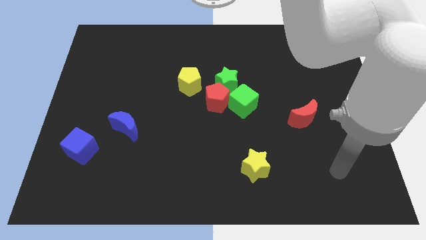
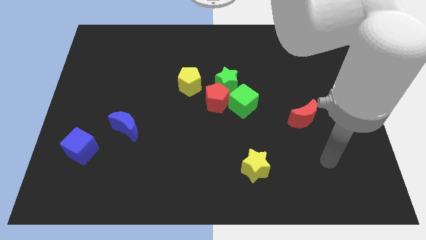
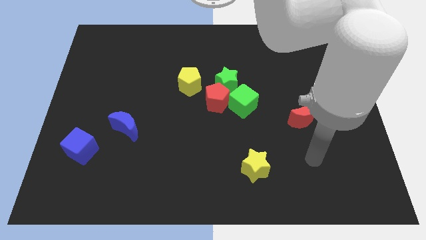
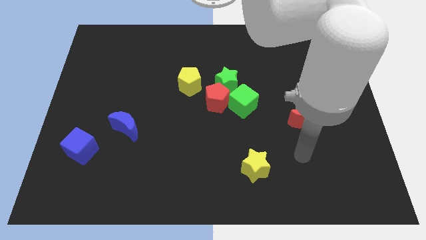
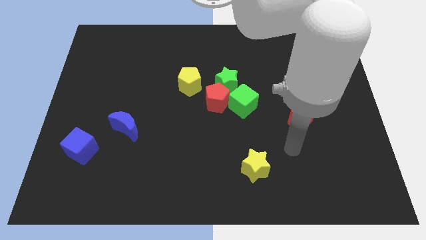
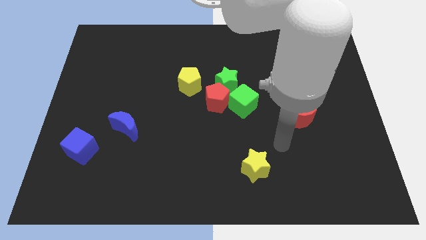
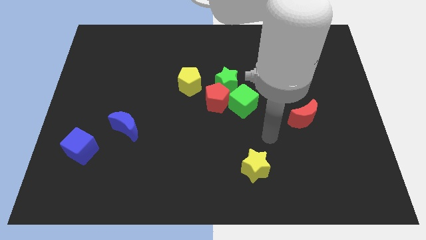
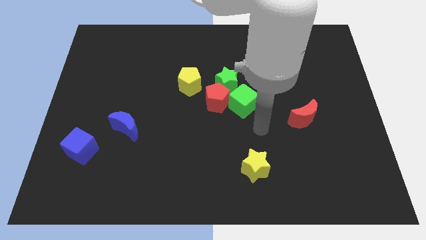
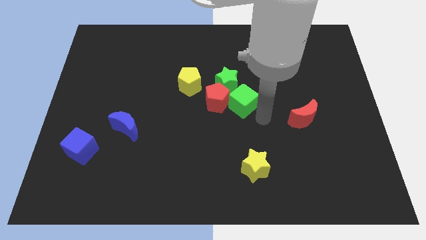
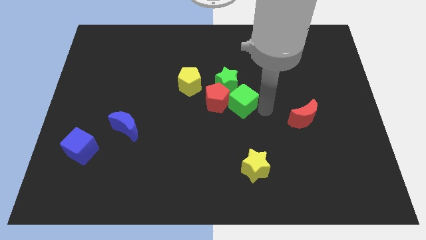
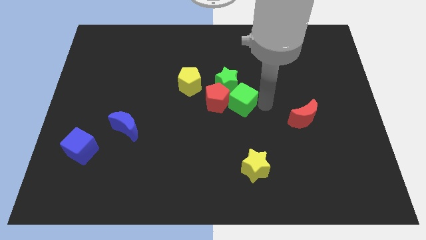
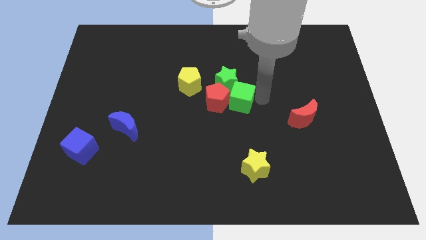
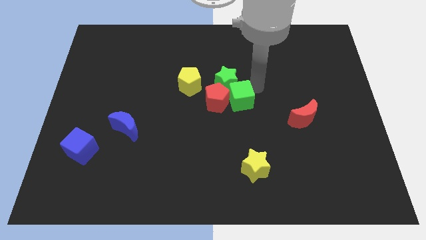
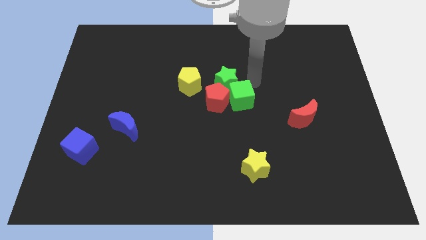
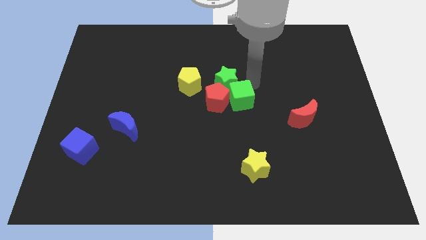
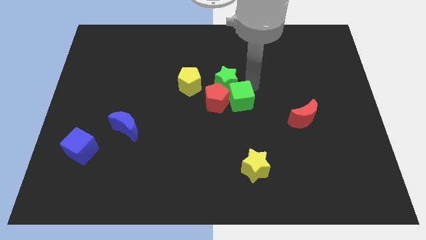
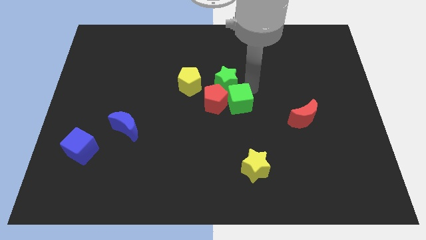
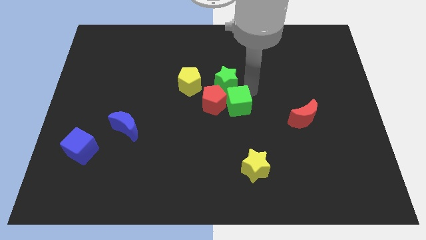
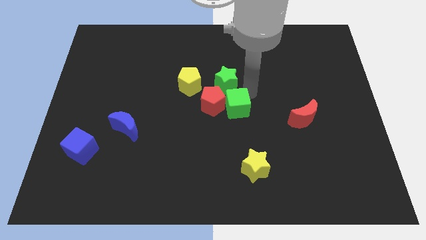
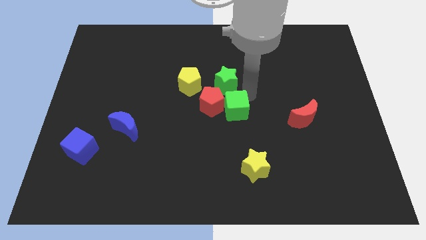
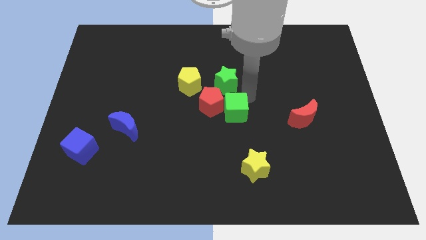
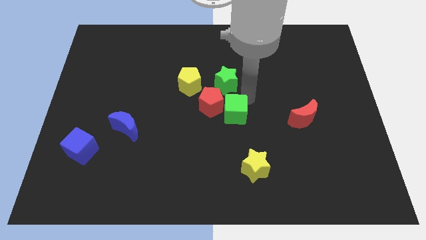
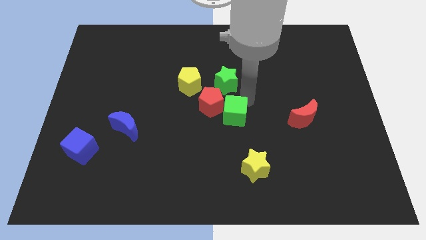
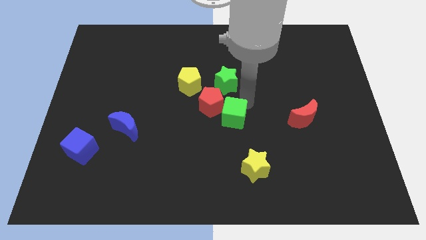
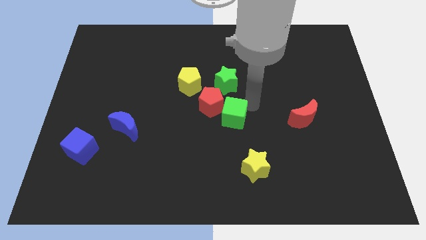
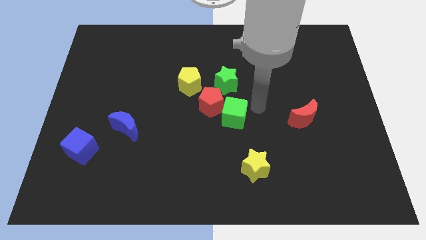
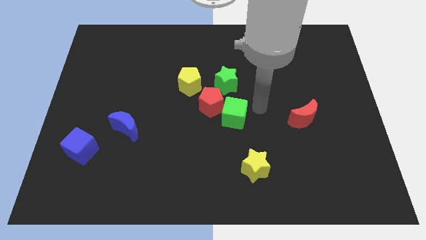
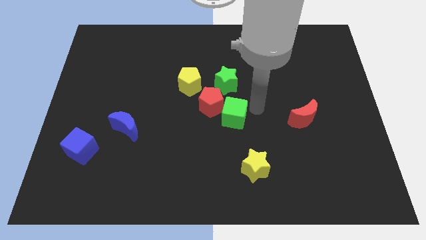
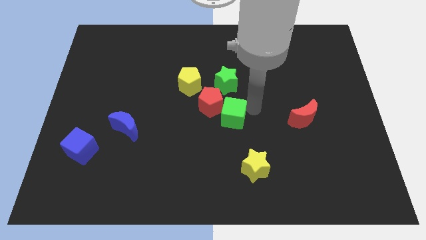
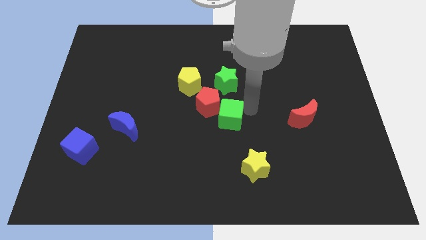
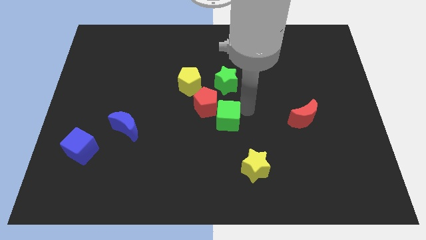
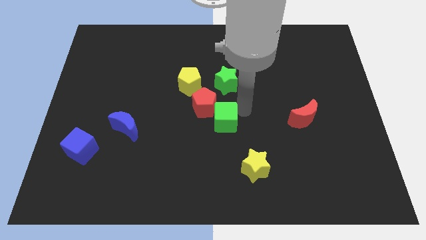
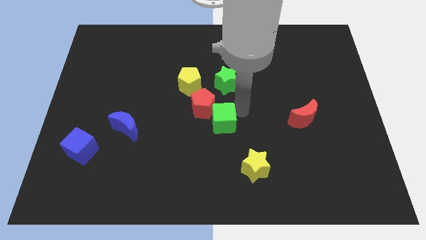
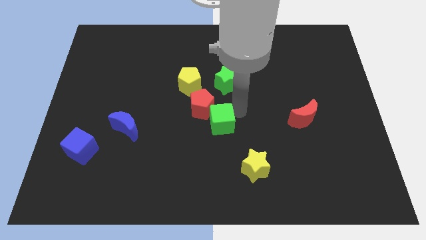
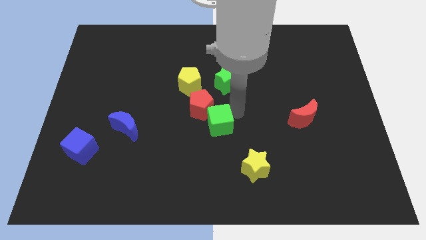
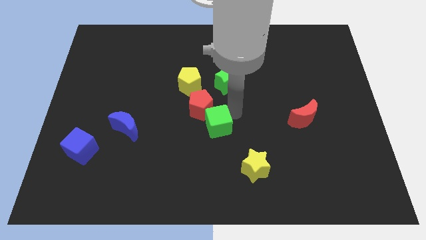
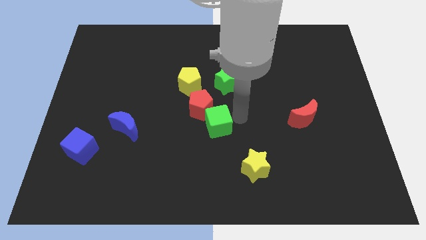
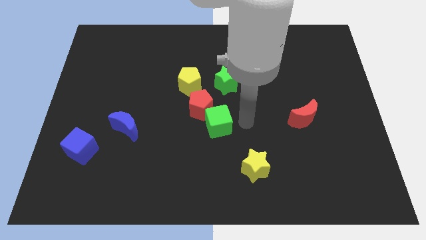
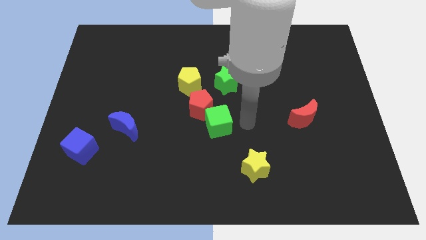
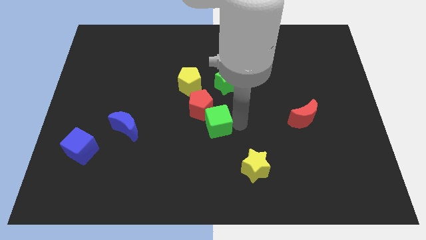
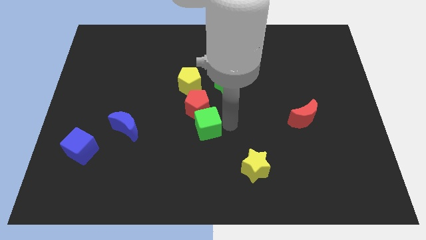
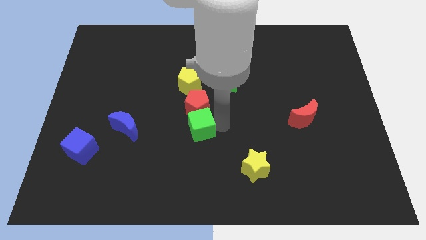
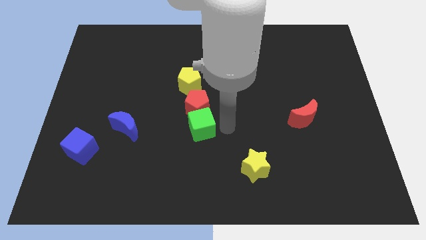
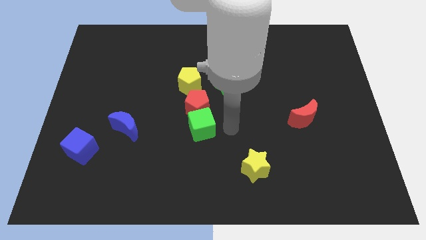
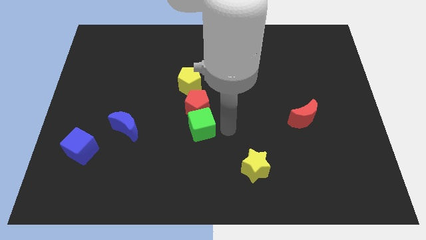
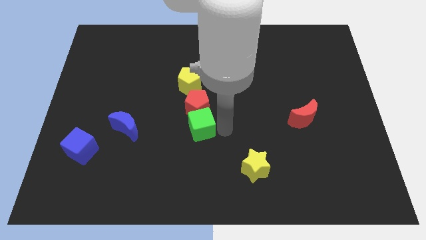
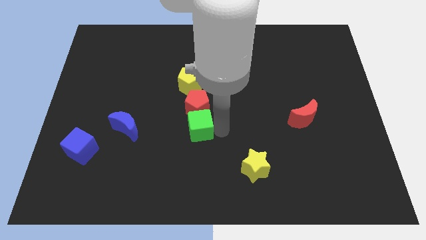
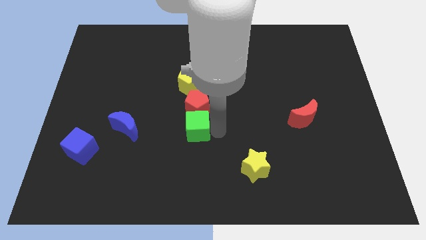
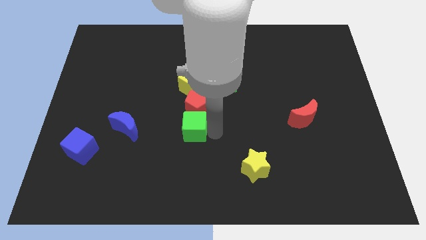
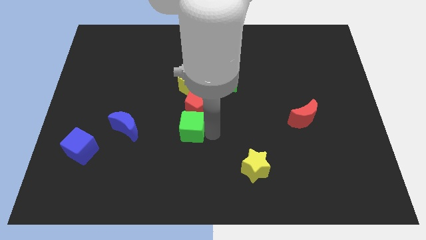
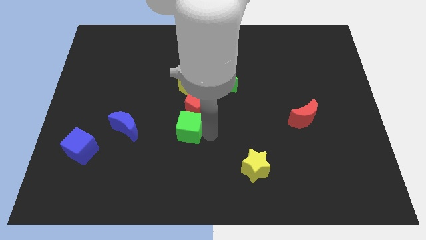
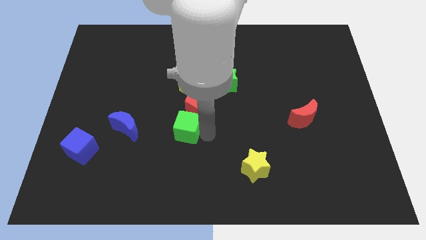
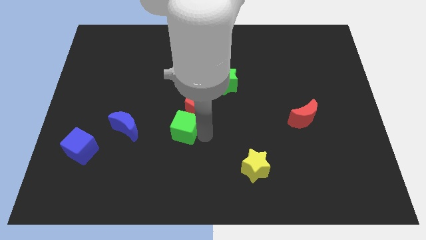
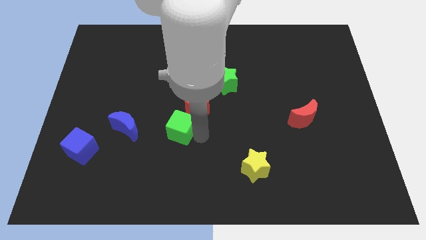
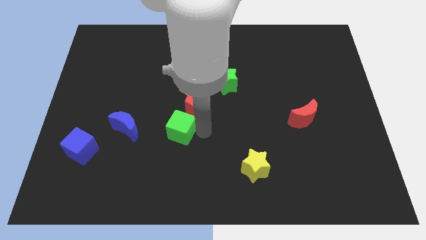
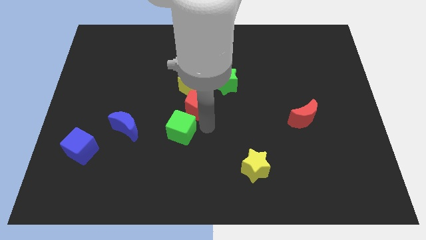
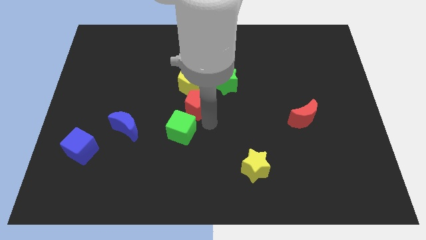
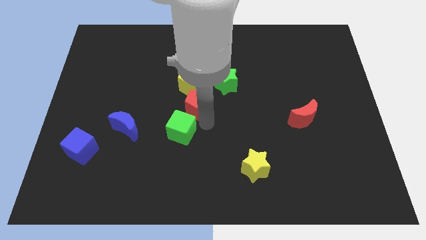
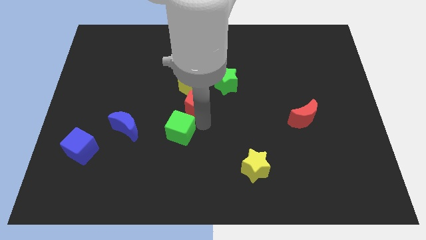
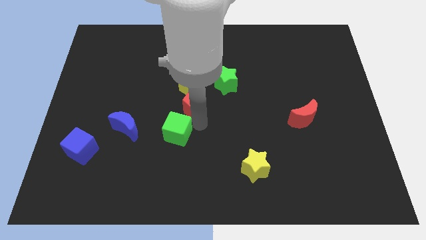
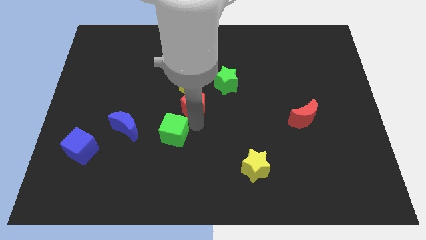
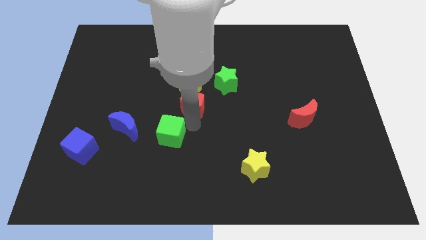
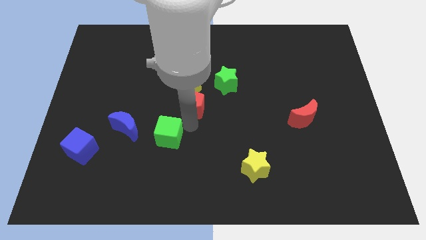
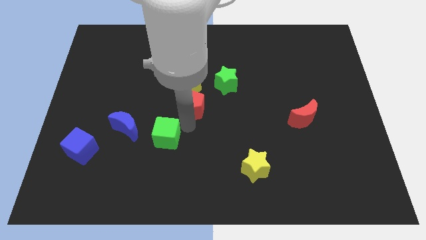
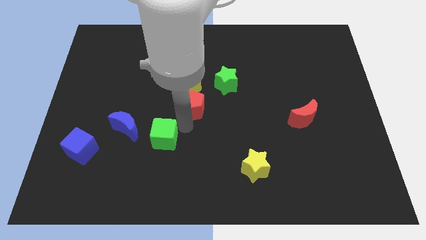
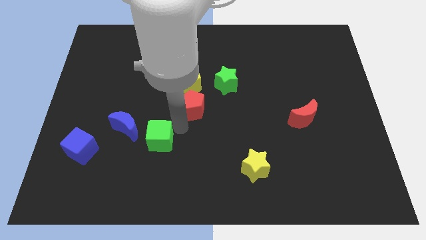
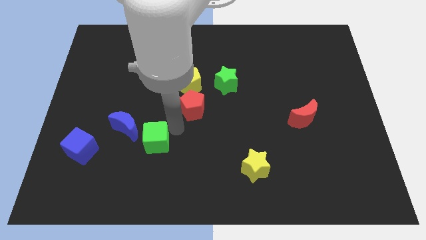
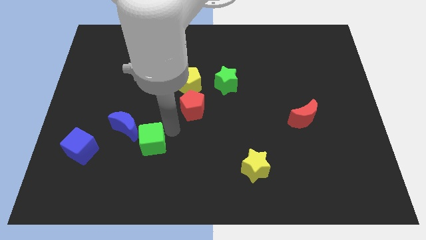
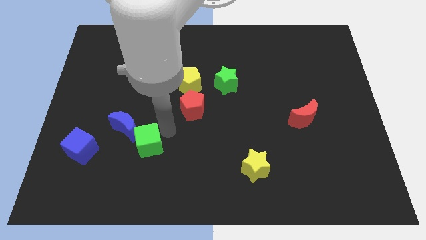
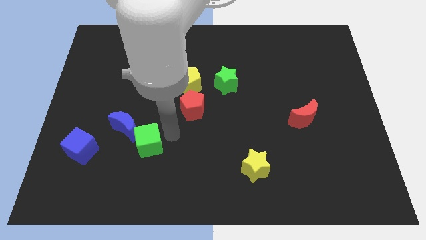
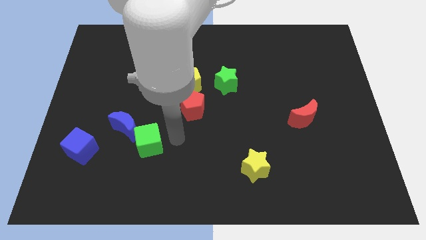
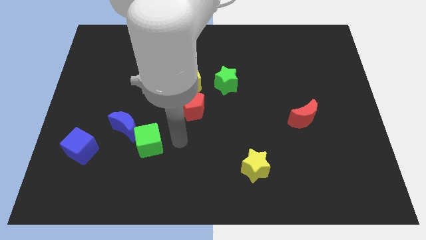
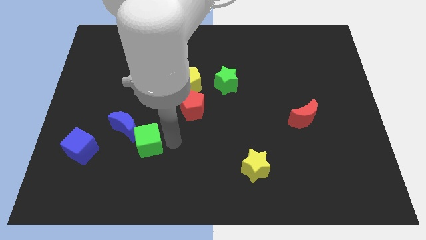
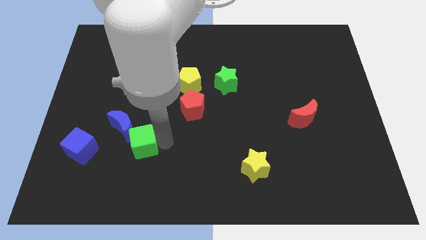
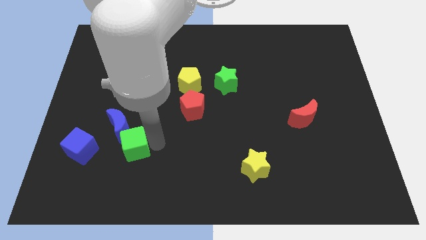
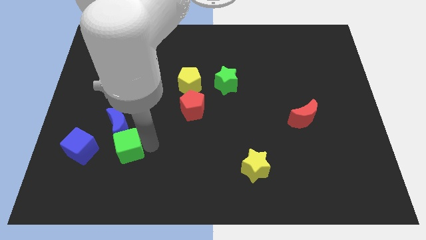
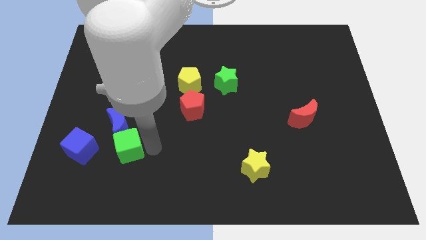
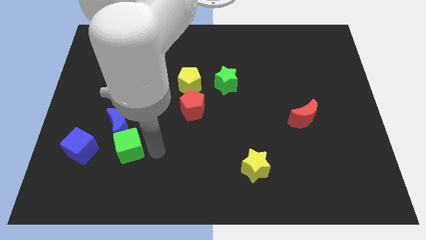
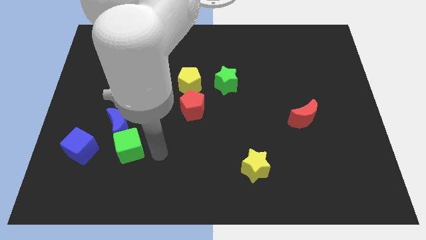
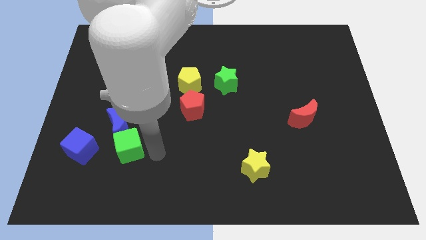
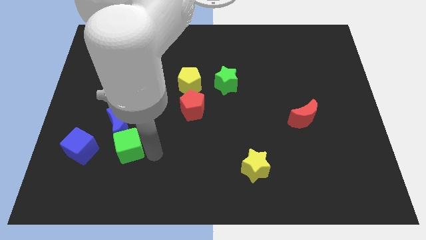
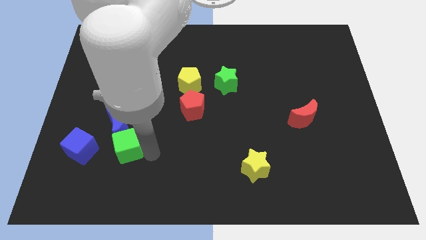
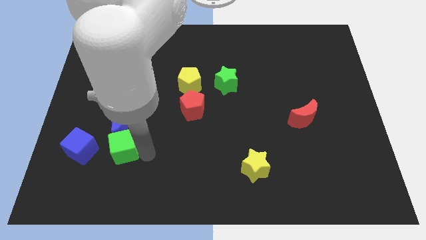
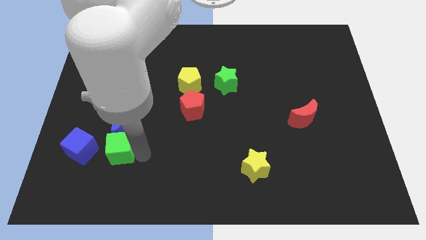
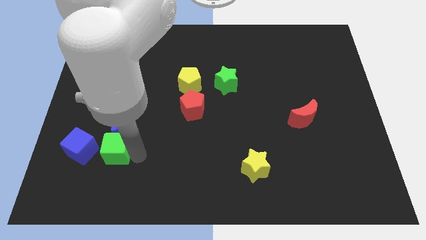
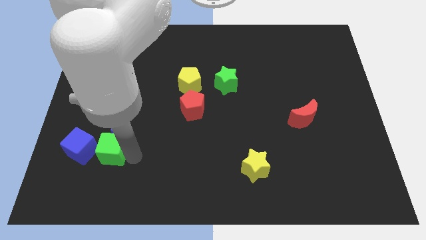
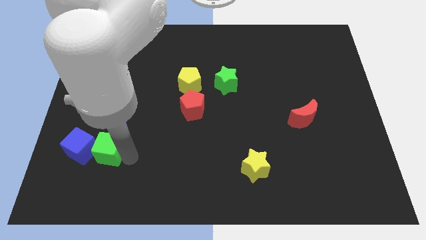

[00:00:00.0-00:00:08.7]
put the green cube towards the blue cube
